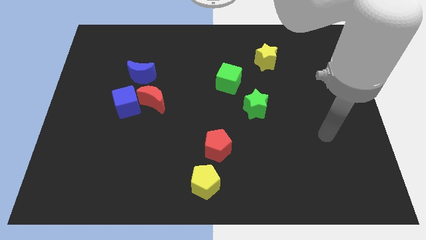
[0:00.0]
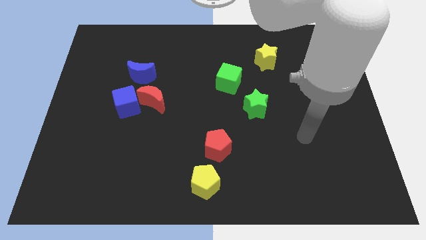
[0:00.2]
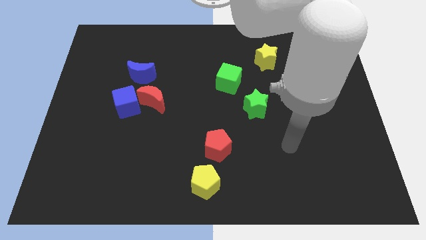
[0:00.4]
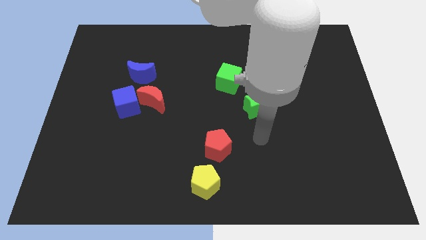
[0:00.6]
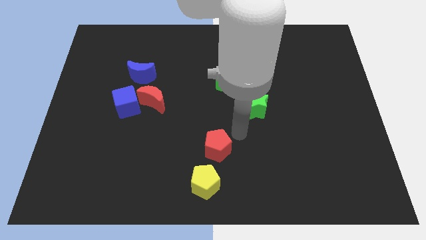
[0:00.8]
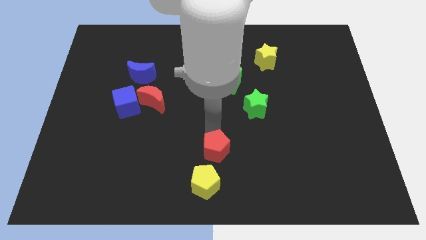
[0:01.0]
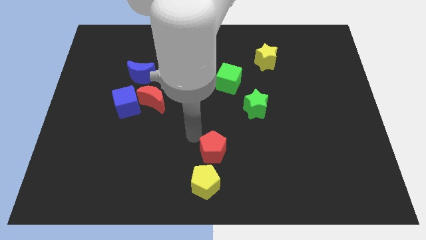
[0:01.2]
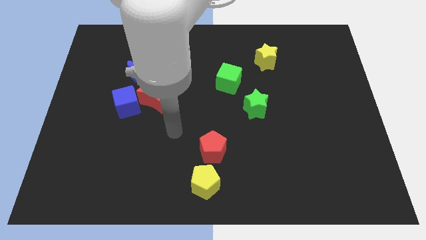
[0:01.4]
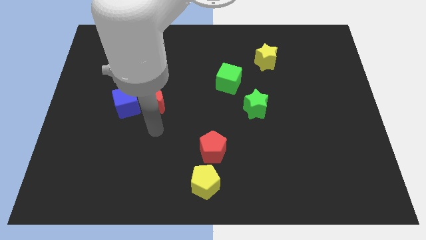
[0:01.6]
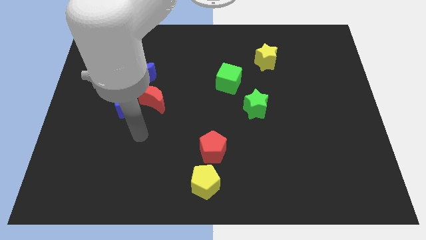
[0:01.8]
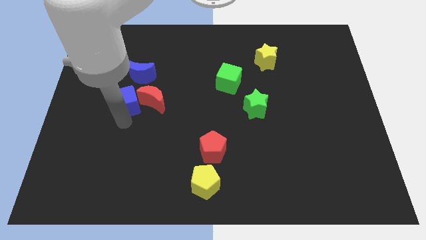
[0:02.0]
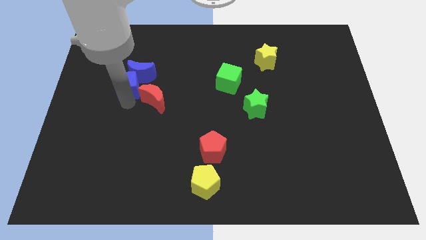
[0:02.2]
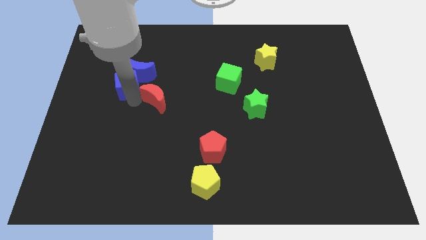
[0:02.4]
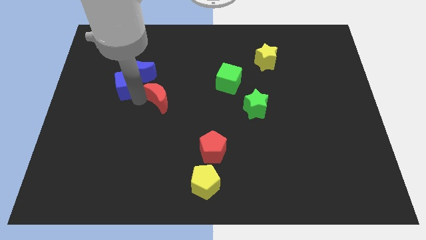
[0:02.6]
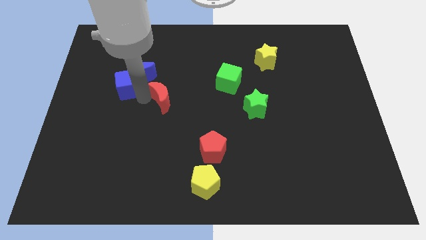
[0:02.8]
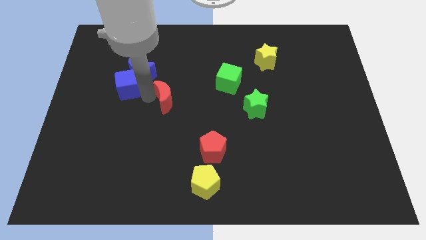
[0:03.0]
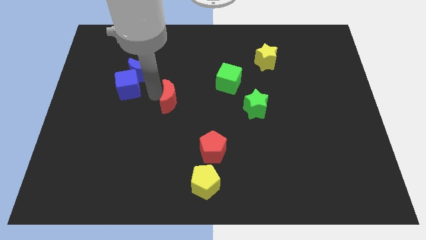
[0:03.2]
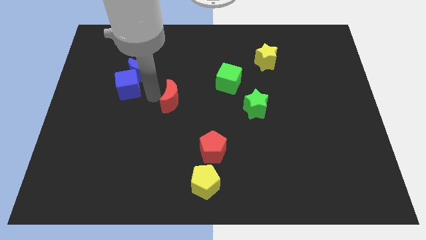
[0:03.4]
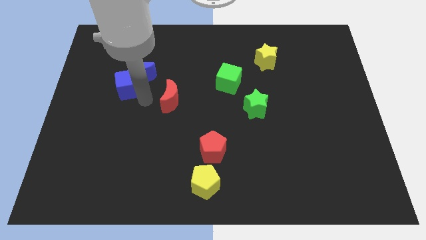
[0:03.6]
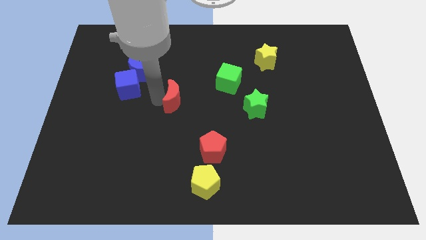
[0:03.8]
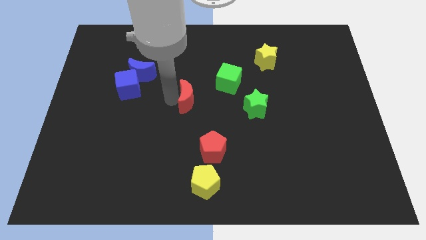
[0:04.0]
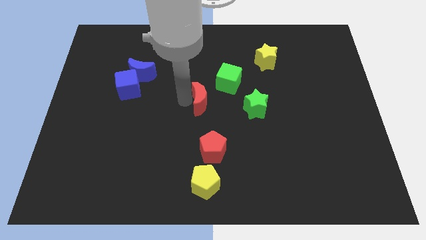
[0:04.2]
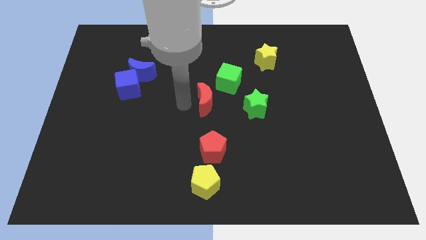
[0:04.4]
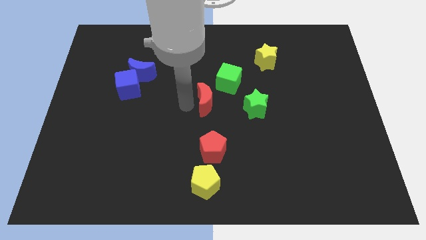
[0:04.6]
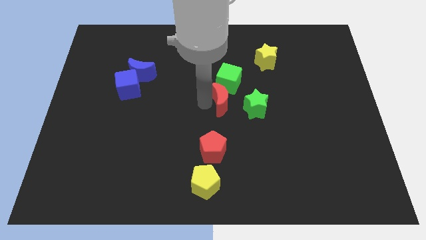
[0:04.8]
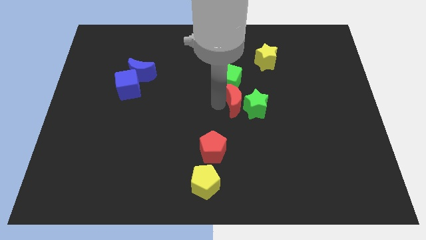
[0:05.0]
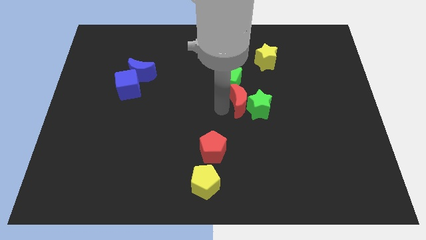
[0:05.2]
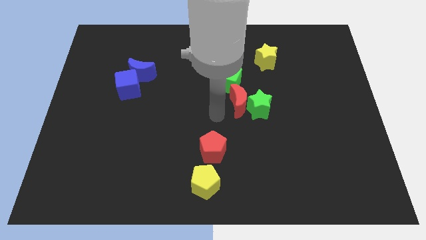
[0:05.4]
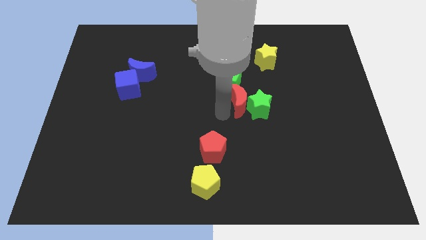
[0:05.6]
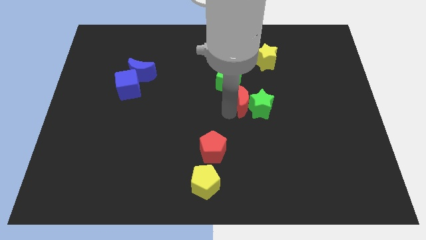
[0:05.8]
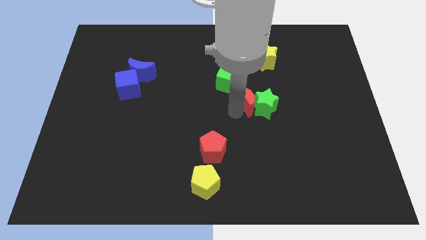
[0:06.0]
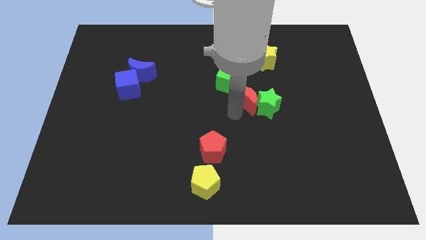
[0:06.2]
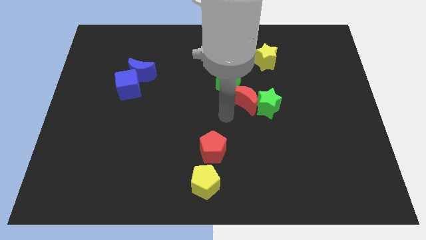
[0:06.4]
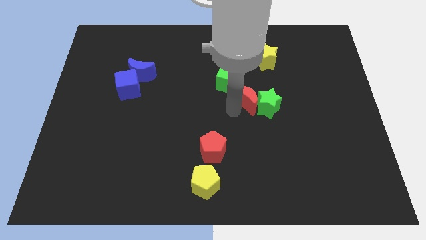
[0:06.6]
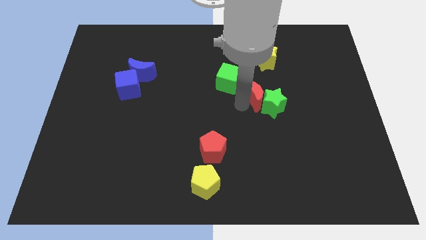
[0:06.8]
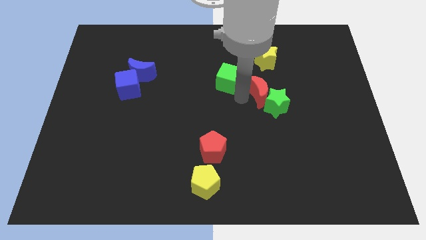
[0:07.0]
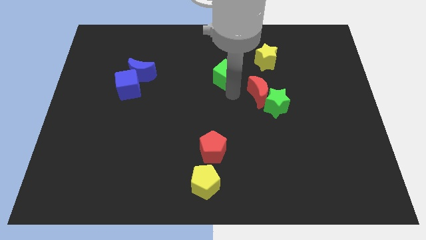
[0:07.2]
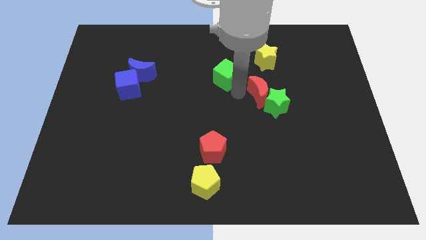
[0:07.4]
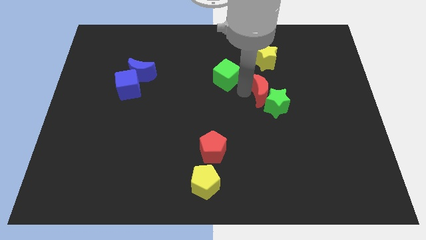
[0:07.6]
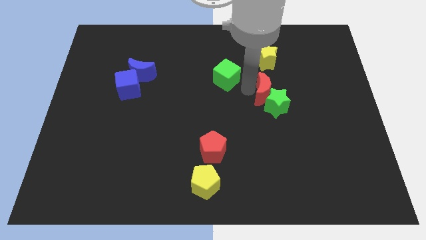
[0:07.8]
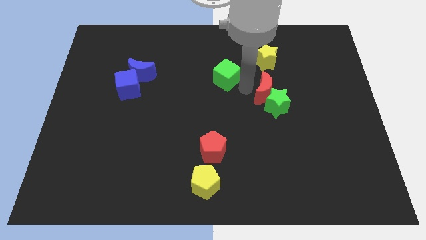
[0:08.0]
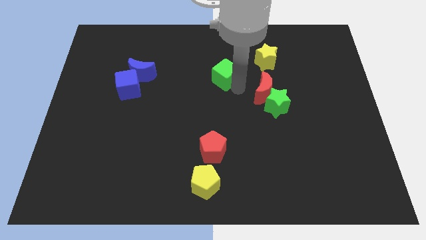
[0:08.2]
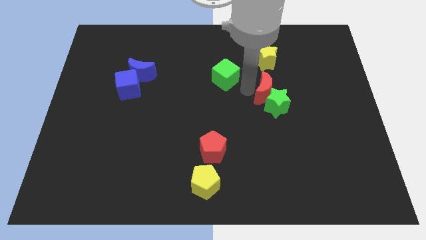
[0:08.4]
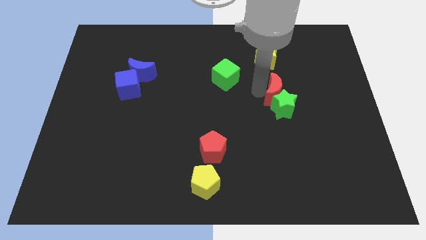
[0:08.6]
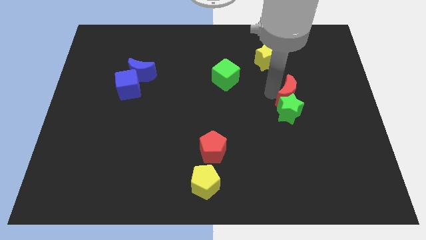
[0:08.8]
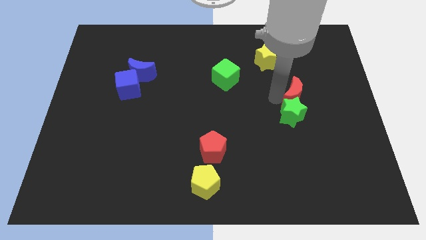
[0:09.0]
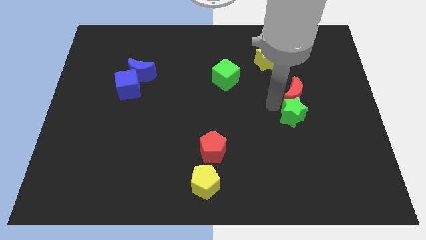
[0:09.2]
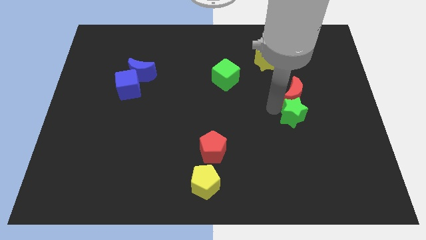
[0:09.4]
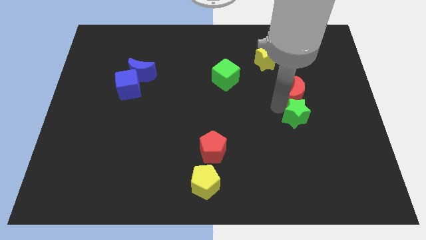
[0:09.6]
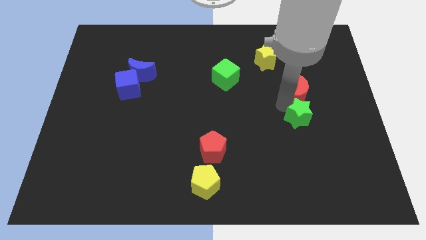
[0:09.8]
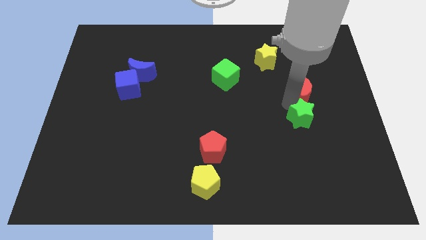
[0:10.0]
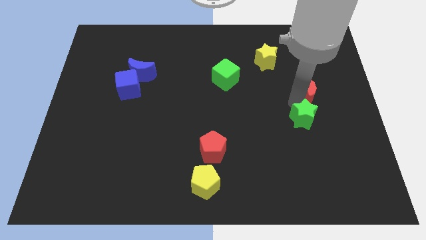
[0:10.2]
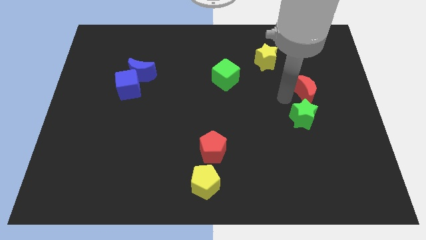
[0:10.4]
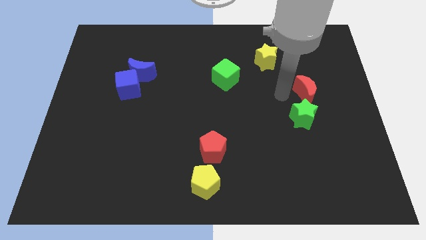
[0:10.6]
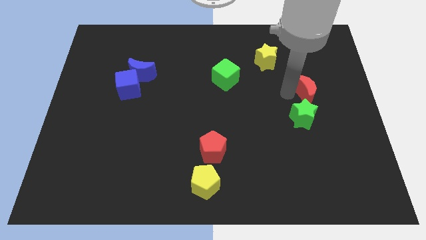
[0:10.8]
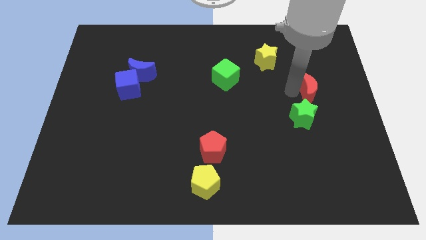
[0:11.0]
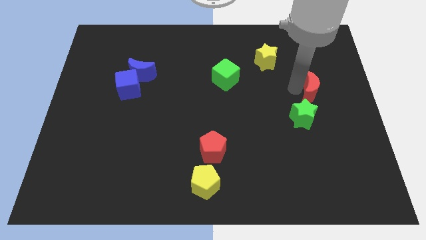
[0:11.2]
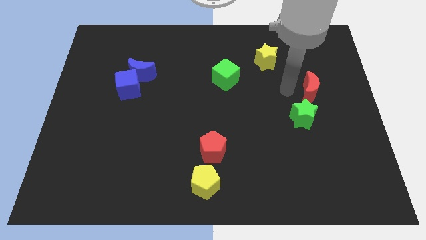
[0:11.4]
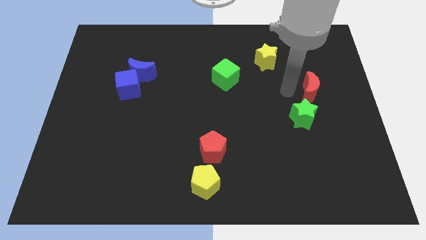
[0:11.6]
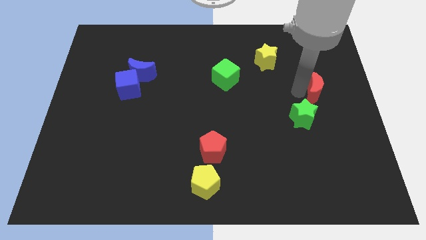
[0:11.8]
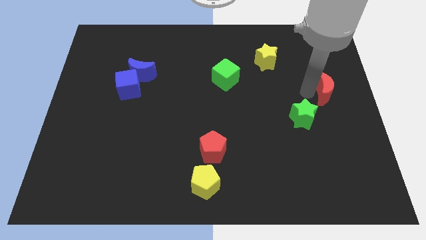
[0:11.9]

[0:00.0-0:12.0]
move the red moon to the right side of the board
